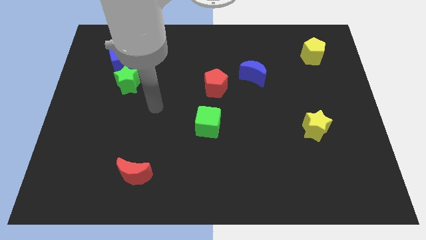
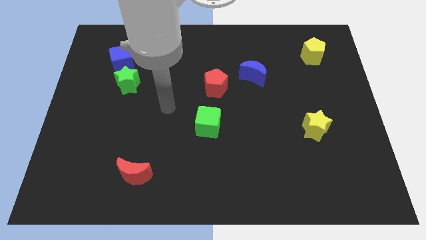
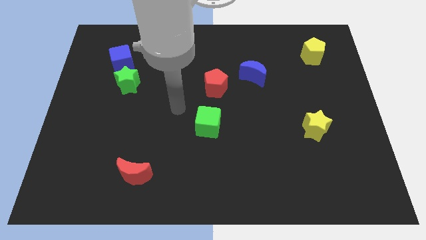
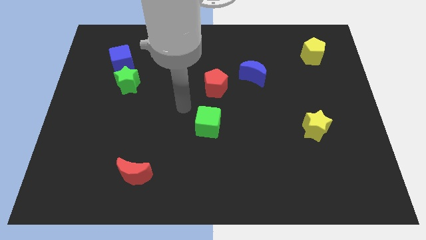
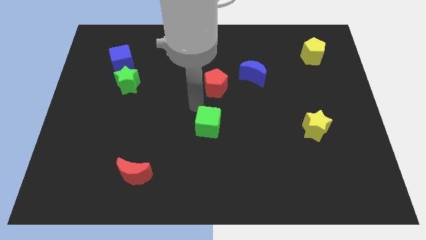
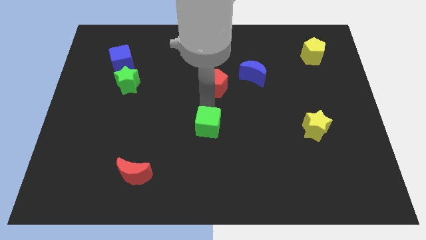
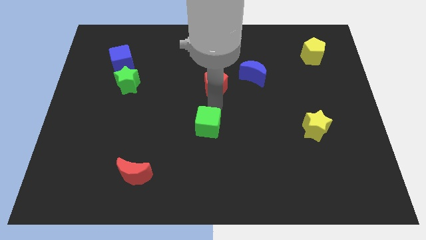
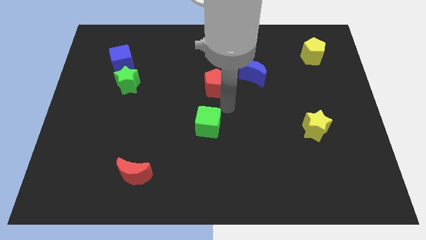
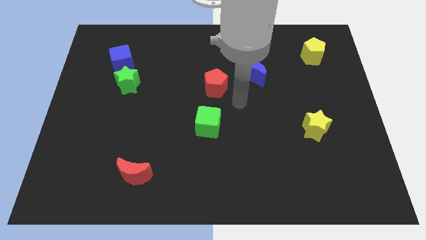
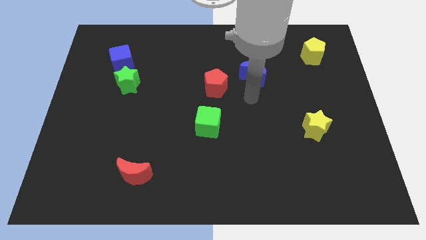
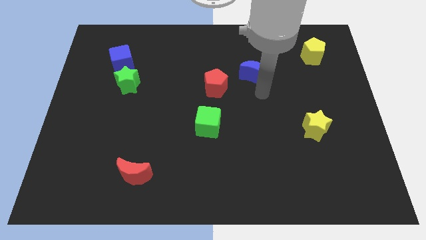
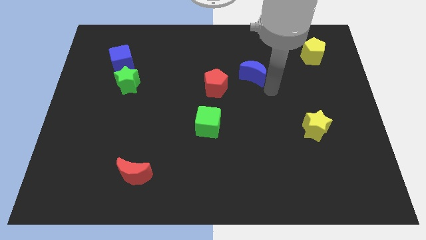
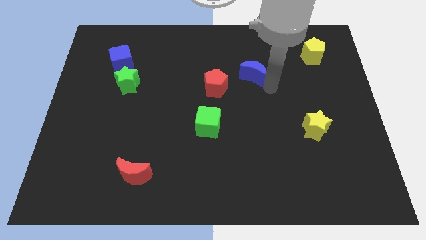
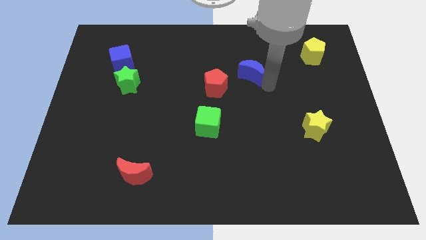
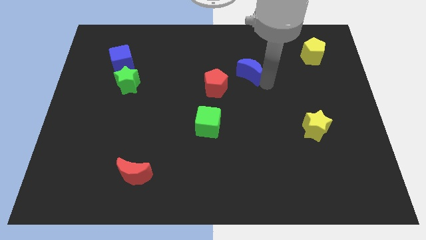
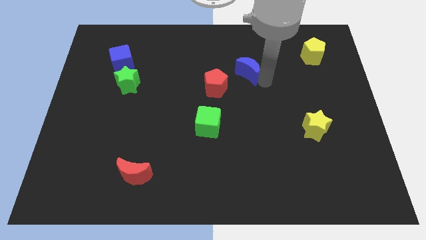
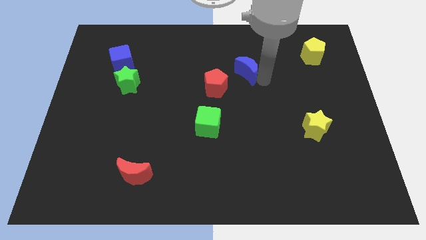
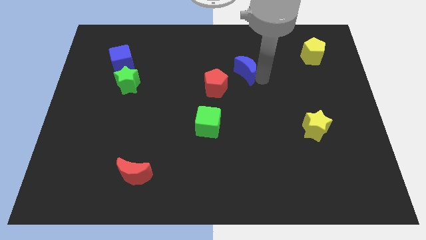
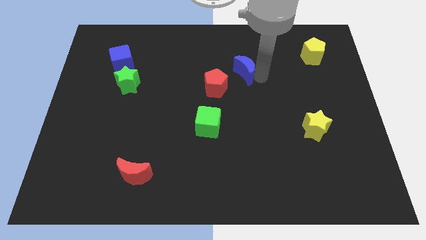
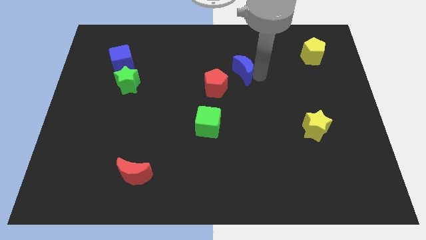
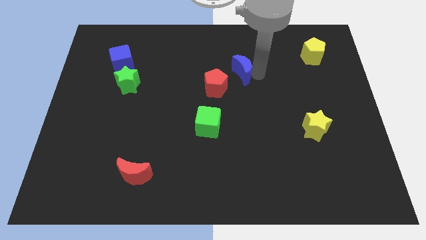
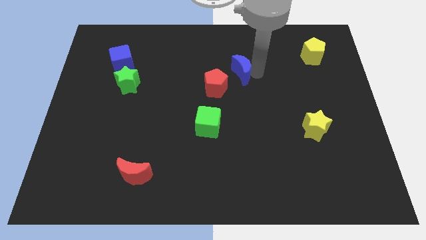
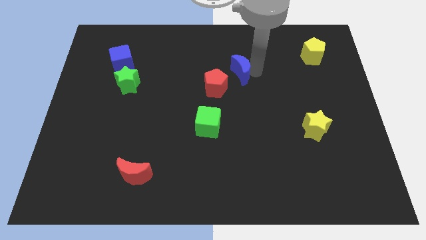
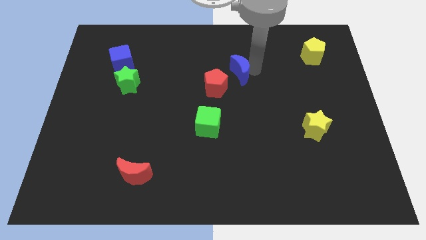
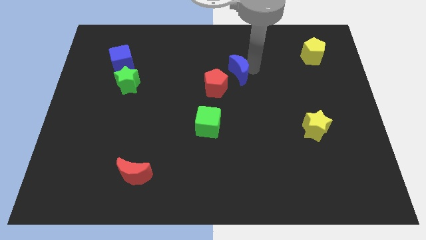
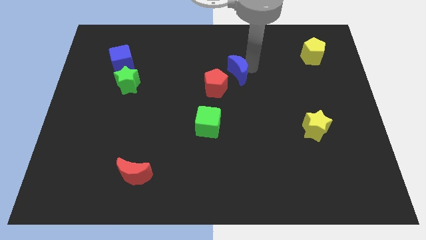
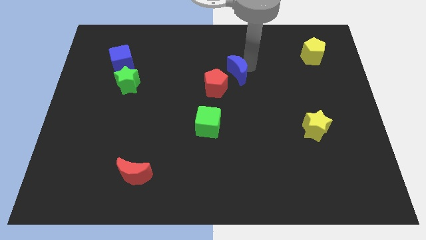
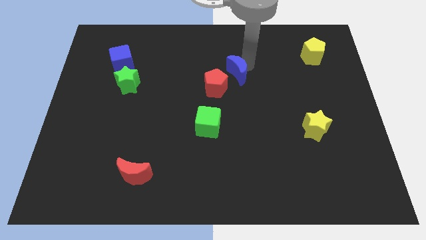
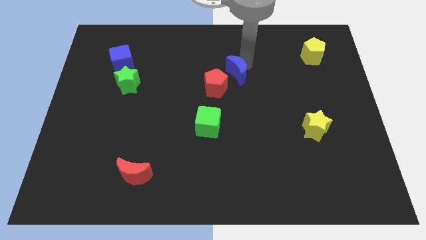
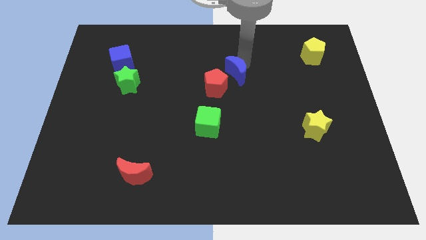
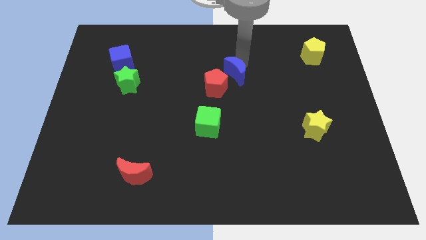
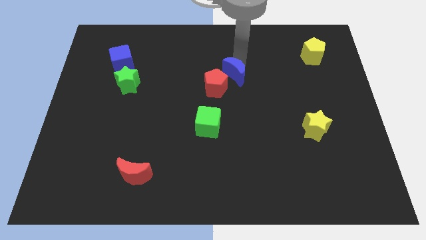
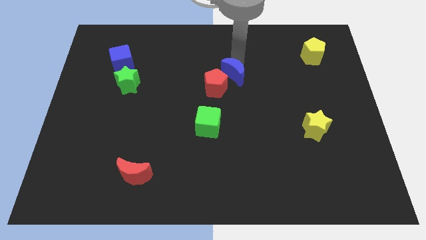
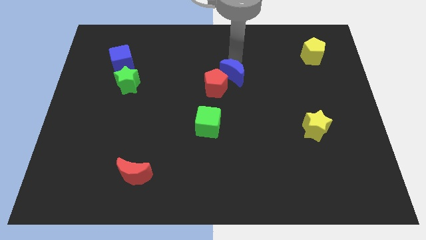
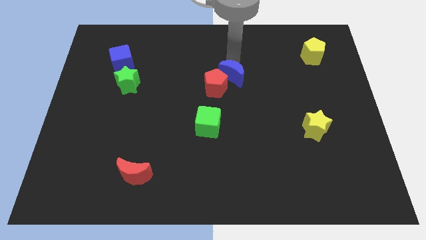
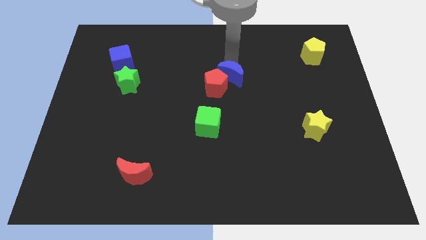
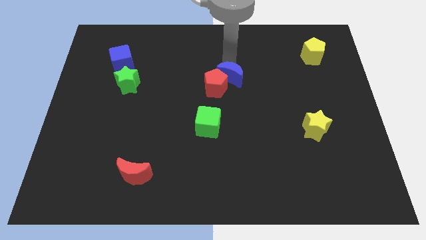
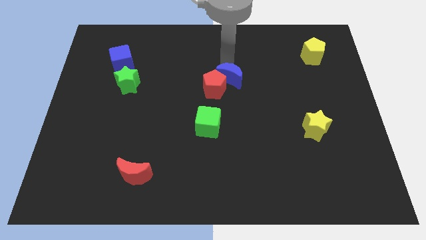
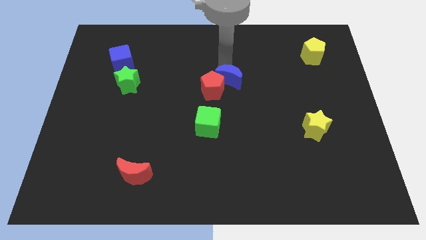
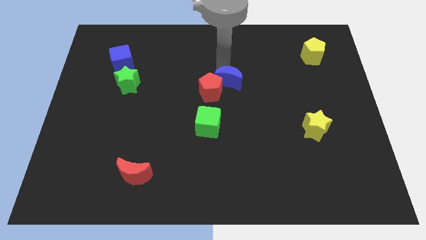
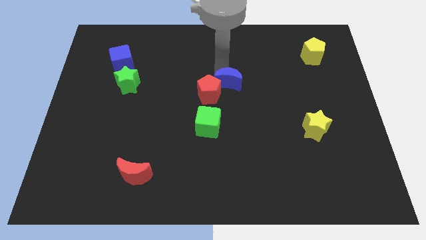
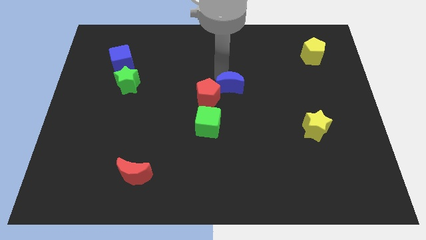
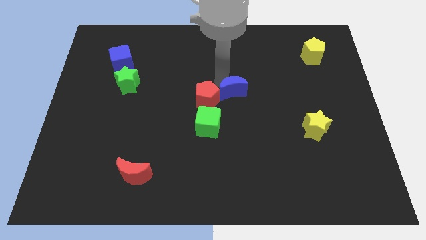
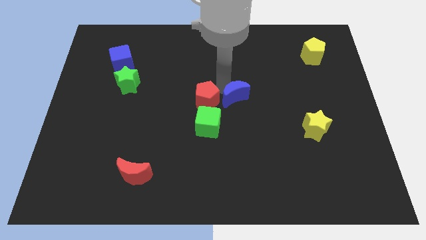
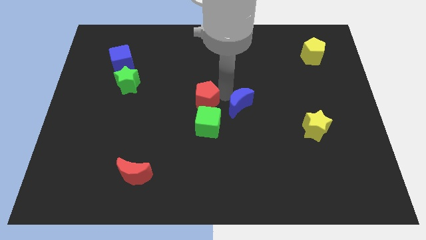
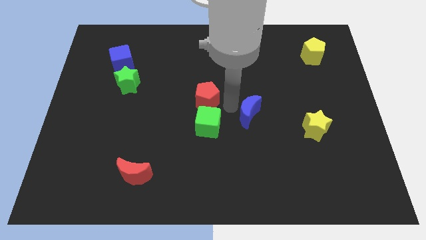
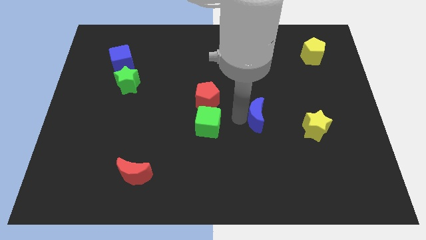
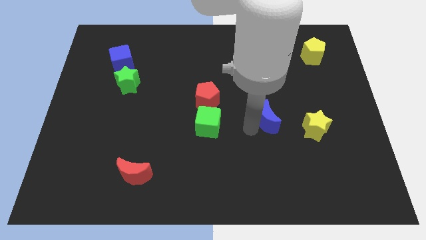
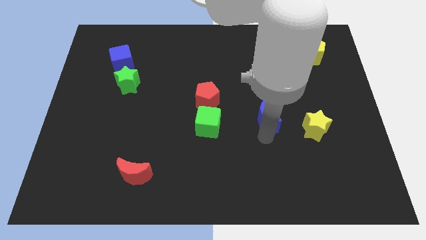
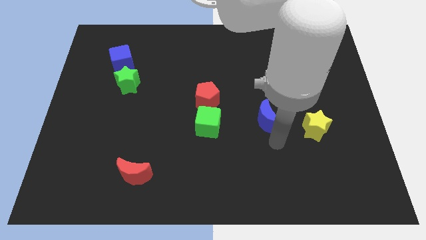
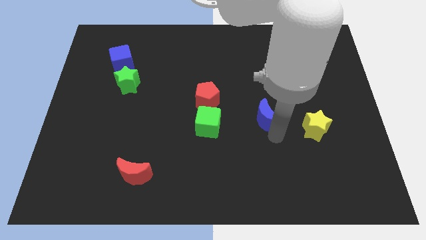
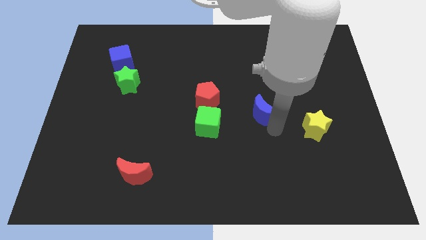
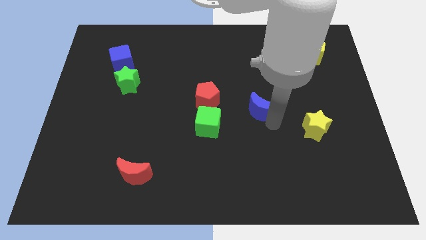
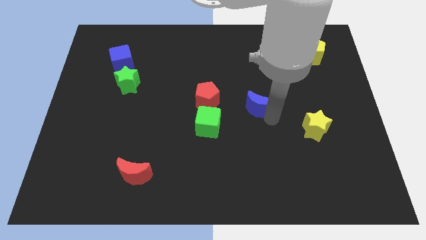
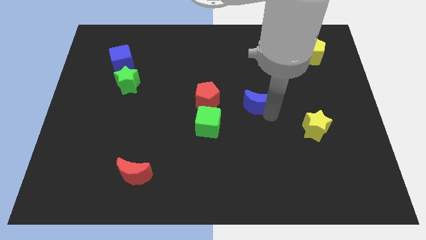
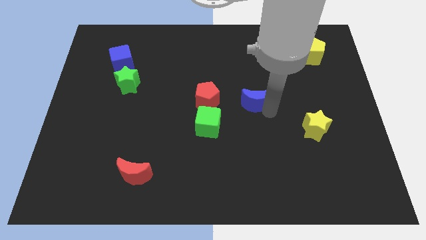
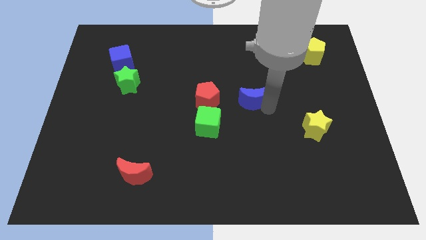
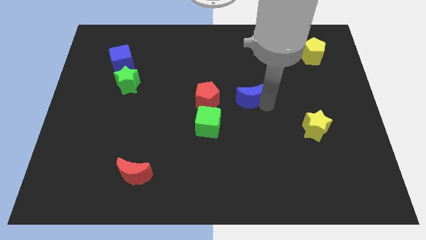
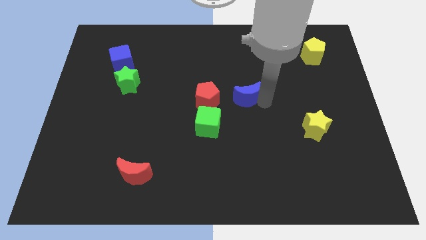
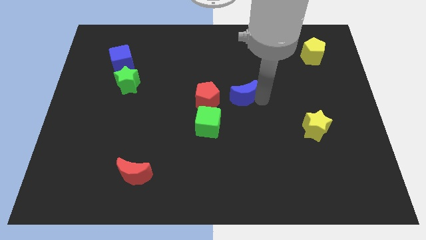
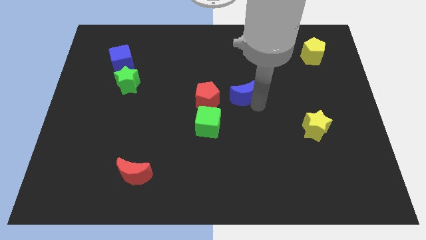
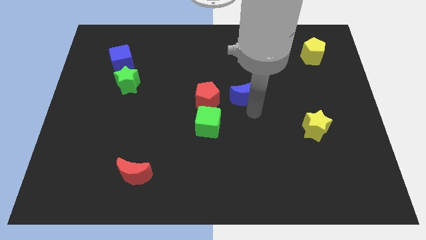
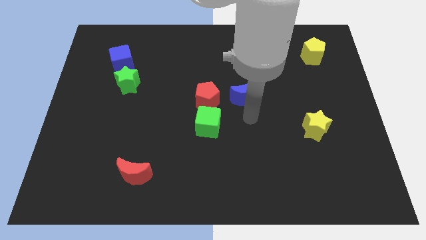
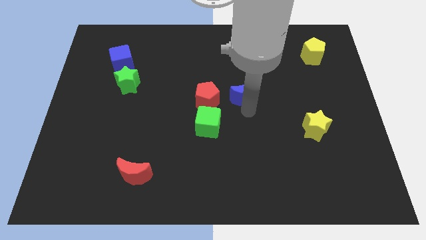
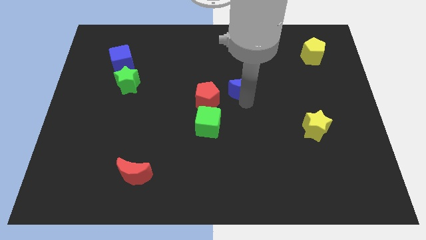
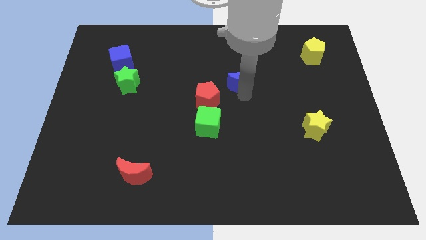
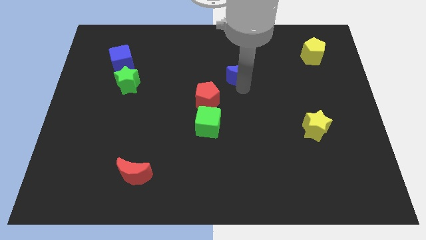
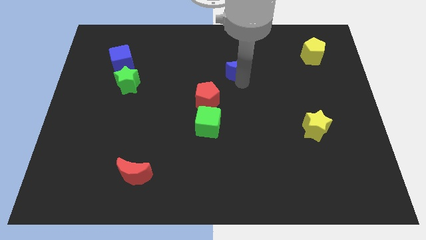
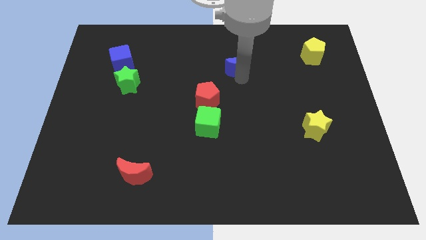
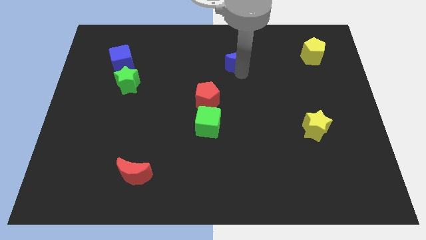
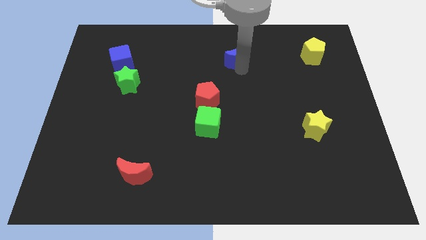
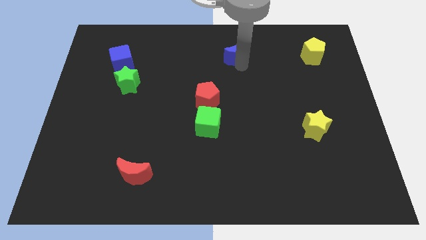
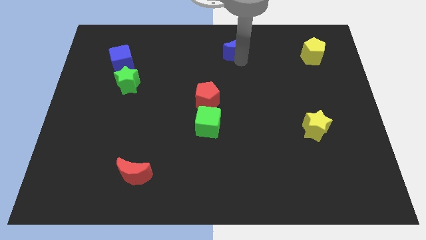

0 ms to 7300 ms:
push the blue moon to the top
